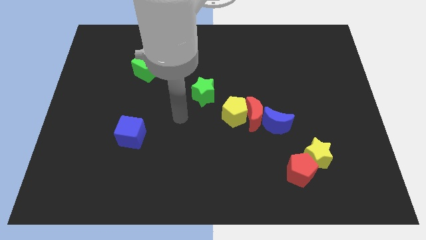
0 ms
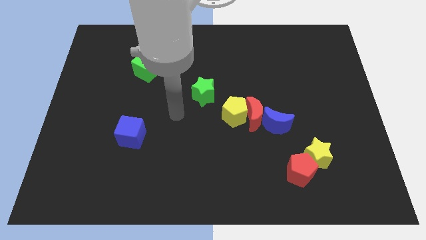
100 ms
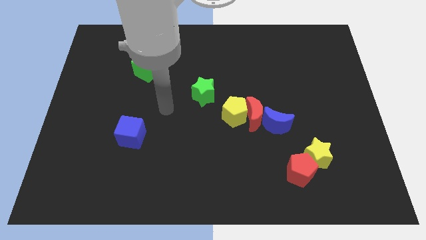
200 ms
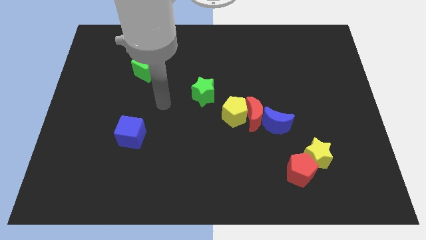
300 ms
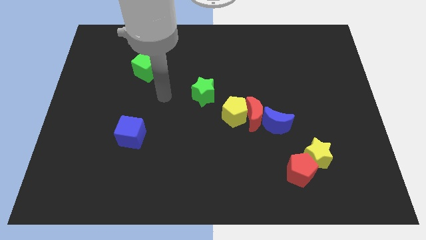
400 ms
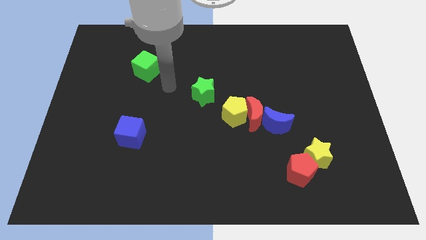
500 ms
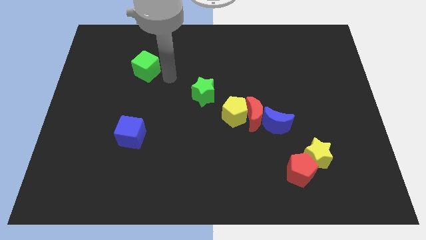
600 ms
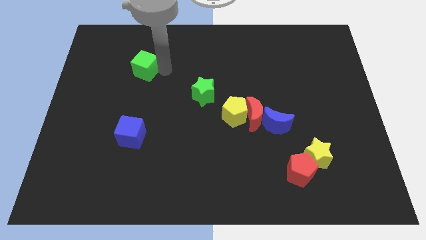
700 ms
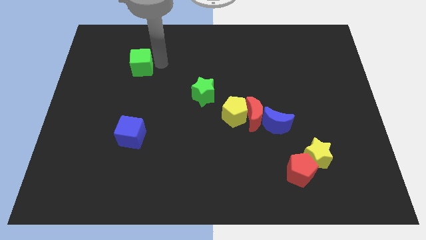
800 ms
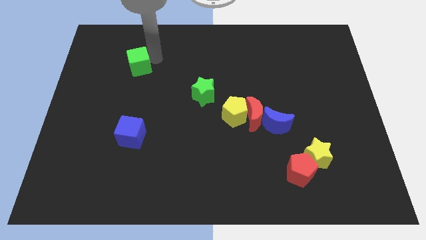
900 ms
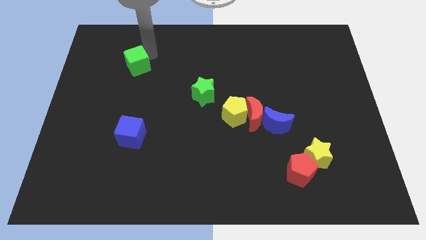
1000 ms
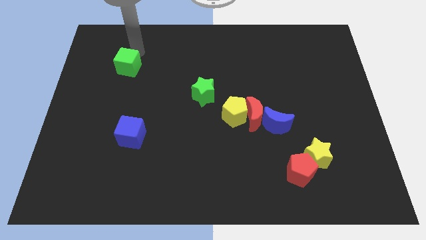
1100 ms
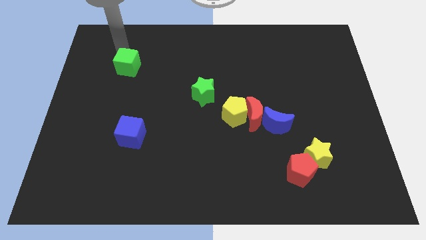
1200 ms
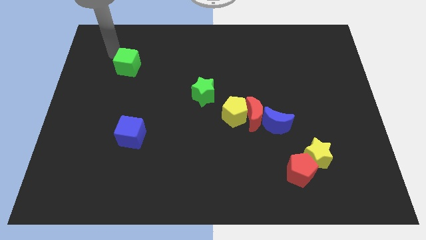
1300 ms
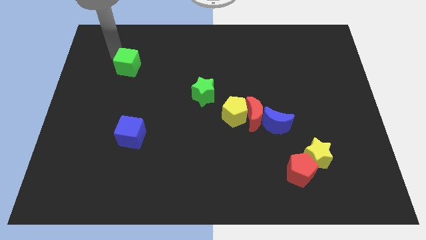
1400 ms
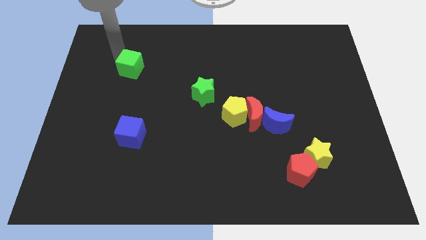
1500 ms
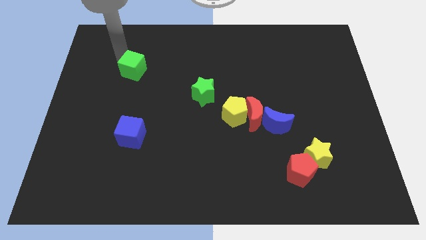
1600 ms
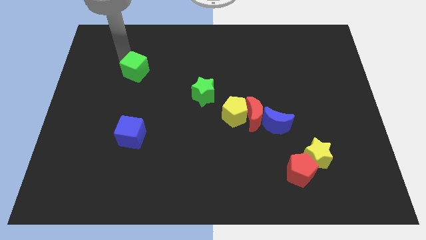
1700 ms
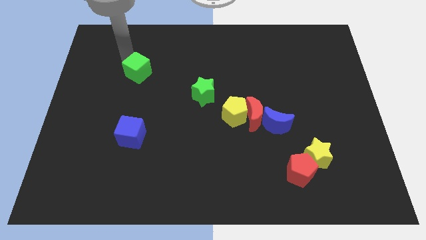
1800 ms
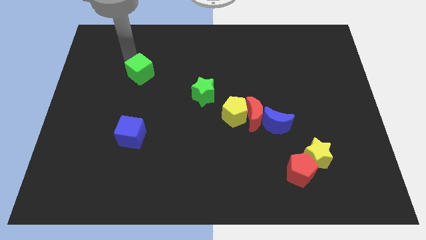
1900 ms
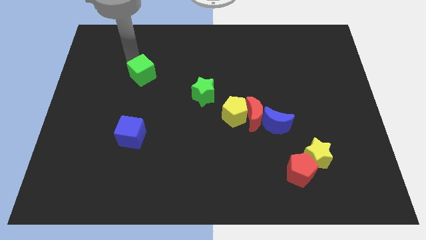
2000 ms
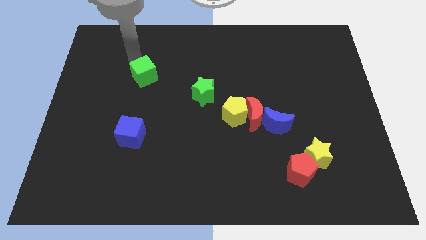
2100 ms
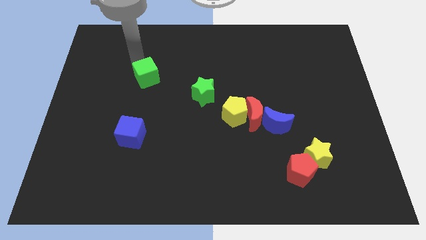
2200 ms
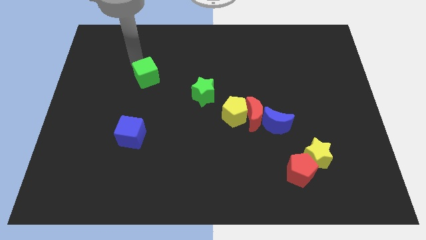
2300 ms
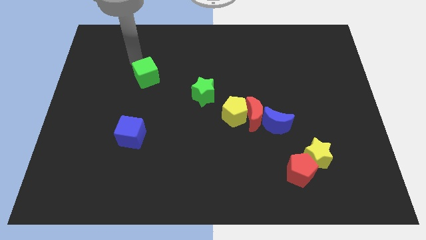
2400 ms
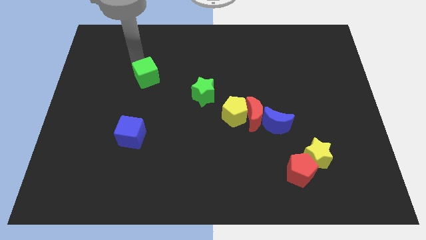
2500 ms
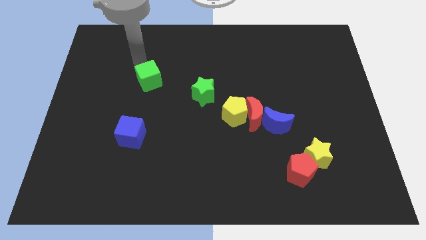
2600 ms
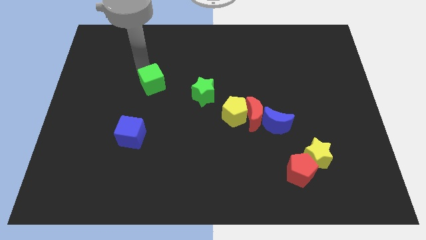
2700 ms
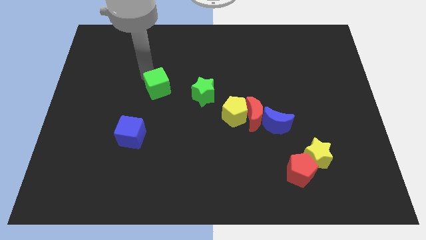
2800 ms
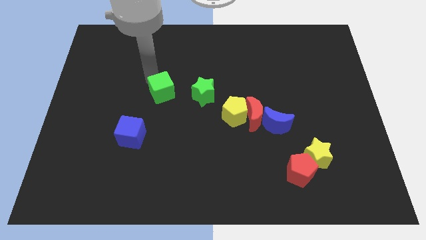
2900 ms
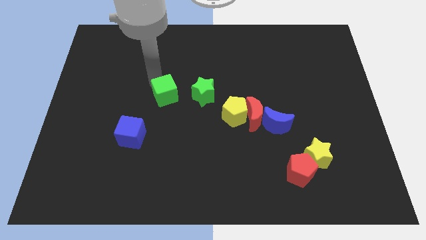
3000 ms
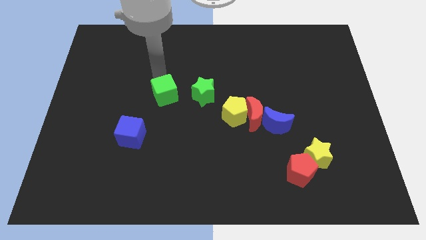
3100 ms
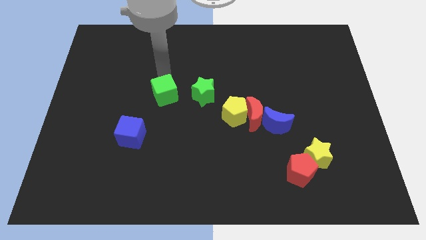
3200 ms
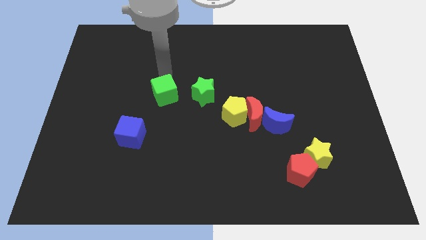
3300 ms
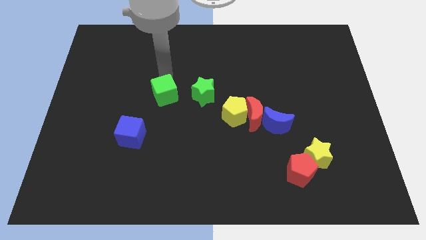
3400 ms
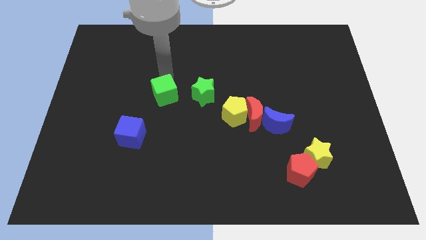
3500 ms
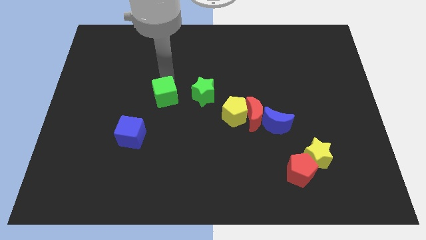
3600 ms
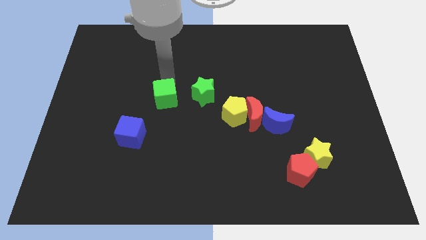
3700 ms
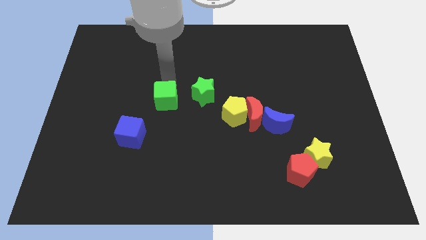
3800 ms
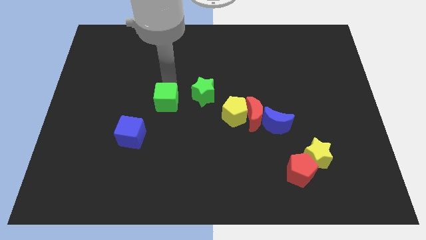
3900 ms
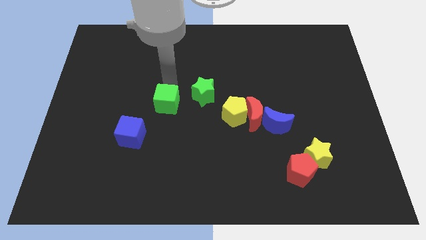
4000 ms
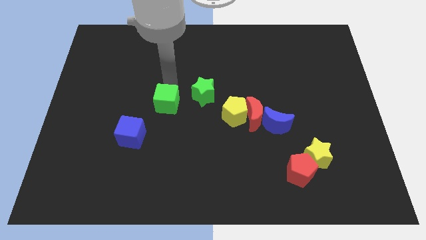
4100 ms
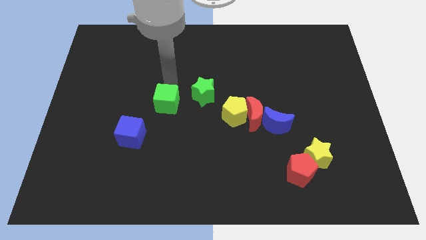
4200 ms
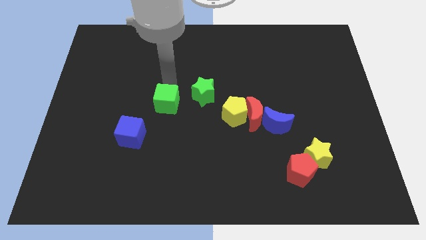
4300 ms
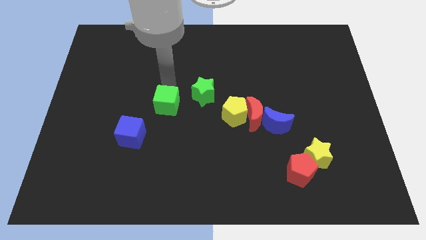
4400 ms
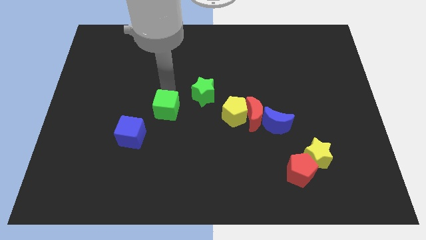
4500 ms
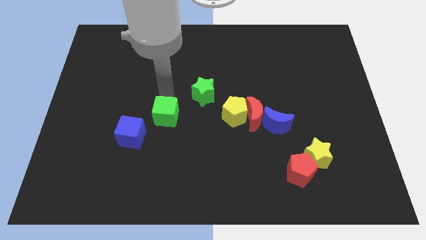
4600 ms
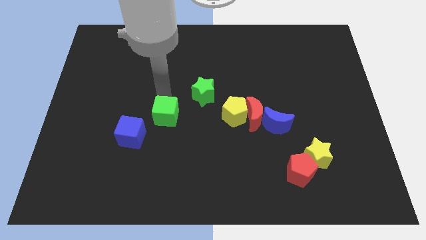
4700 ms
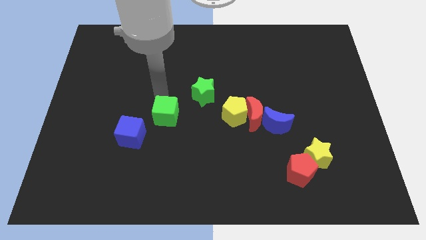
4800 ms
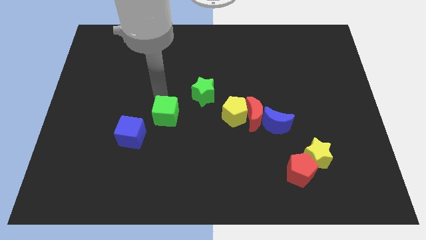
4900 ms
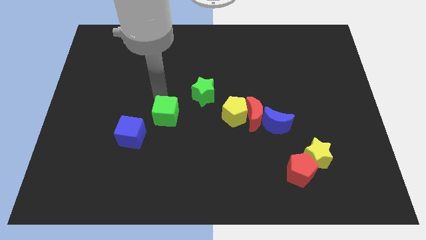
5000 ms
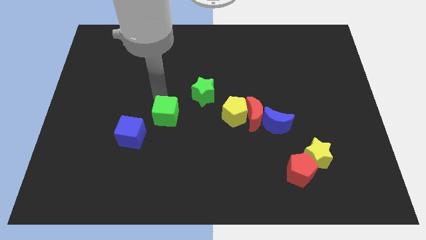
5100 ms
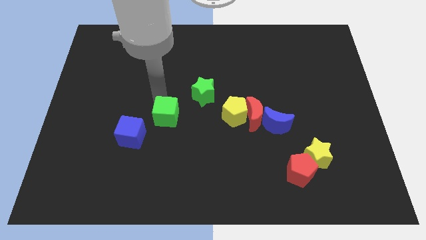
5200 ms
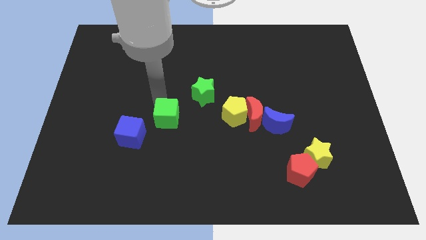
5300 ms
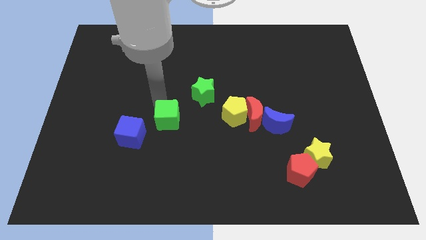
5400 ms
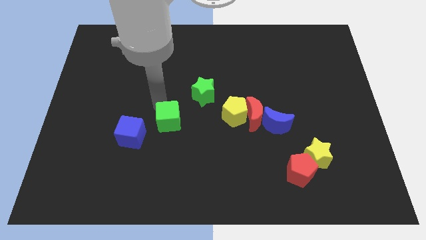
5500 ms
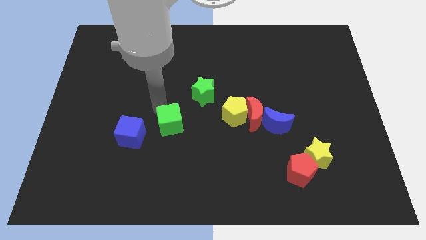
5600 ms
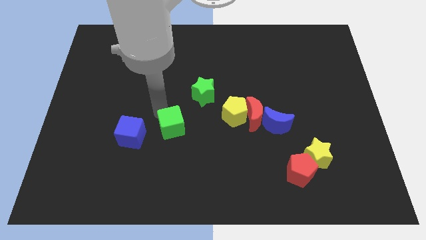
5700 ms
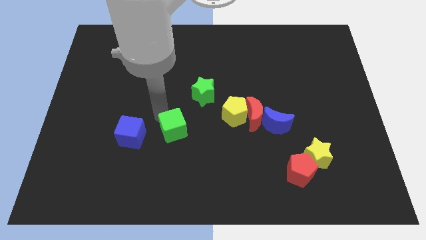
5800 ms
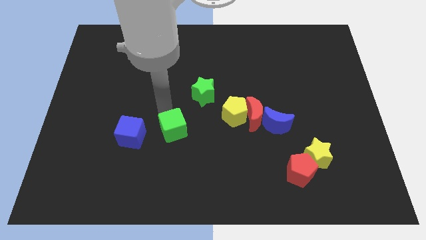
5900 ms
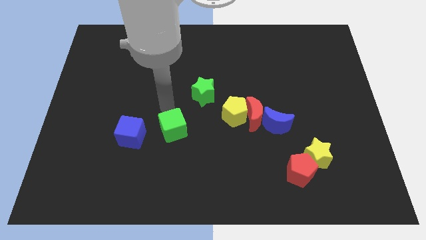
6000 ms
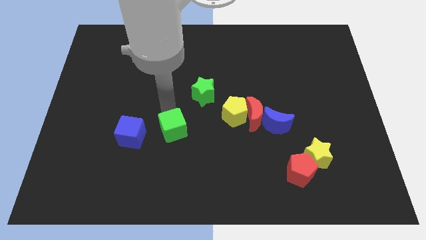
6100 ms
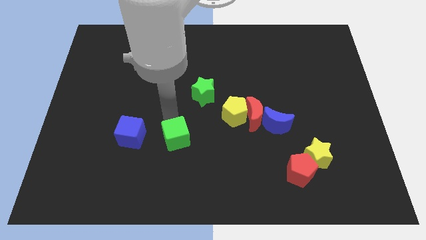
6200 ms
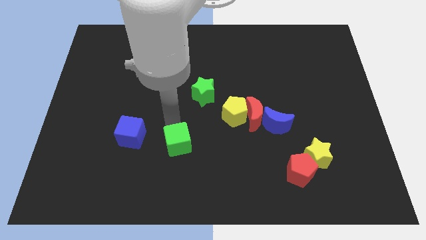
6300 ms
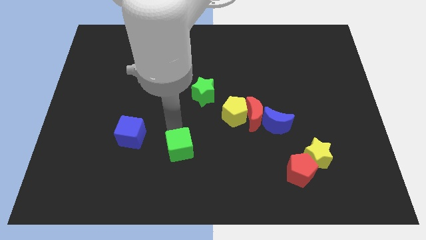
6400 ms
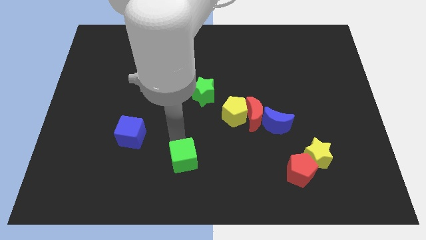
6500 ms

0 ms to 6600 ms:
move the green cube to the bottom side

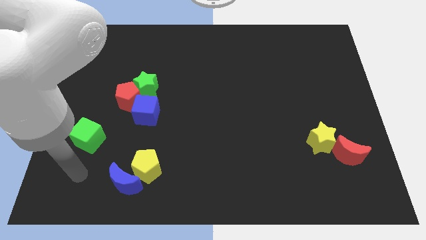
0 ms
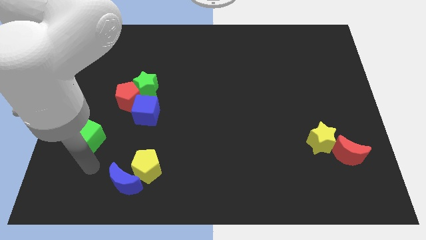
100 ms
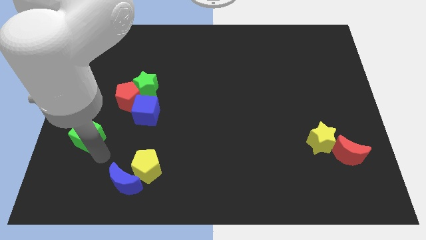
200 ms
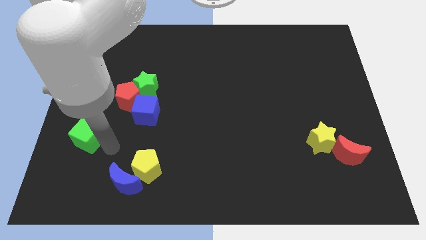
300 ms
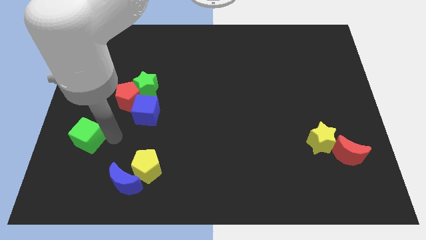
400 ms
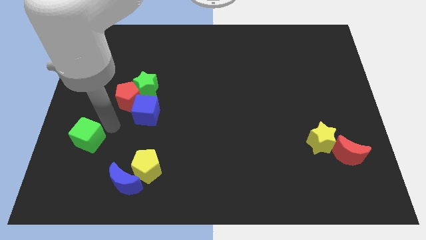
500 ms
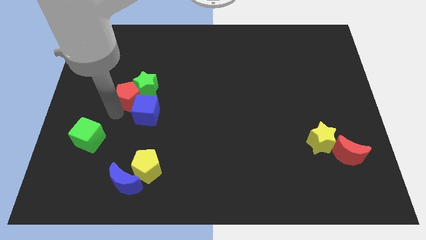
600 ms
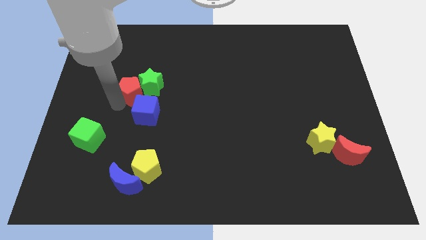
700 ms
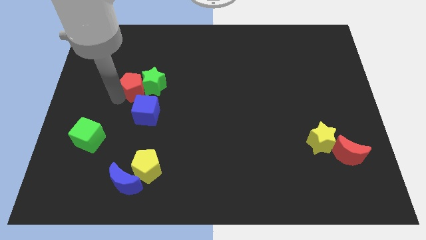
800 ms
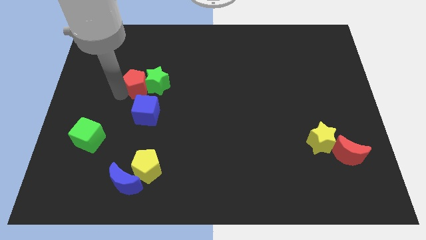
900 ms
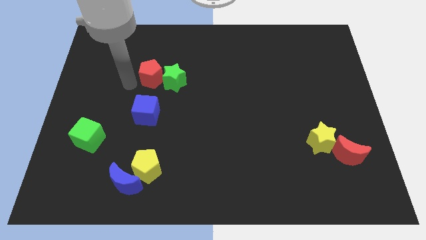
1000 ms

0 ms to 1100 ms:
move the green star to the center of the board

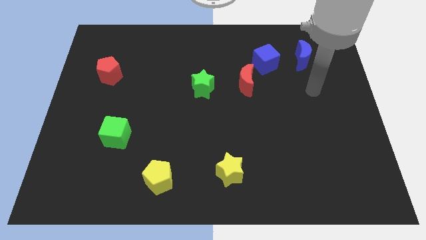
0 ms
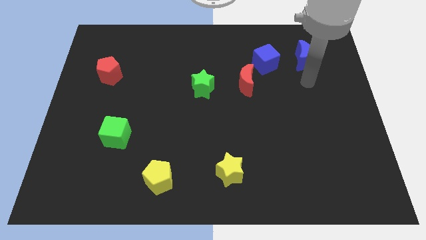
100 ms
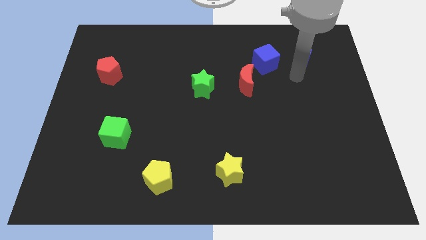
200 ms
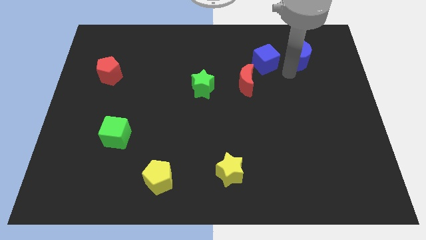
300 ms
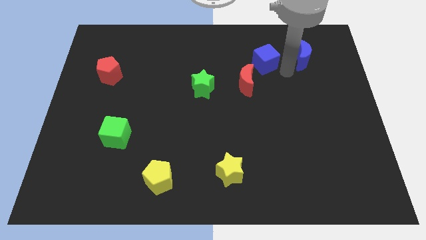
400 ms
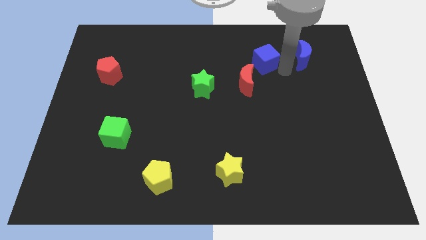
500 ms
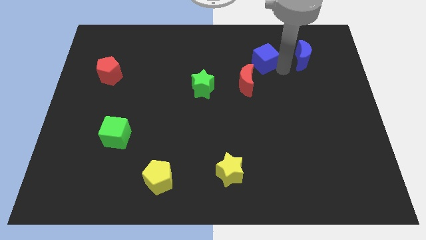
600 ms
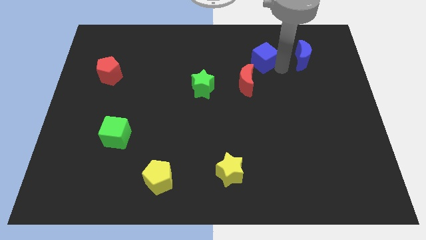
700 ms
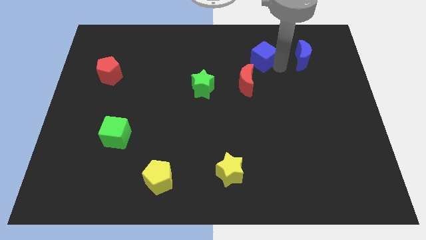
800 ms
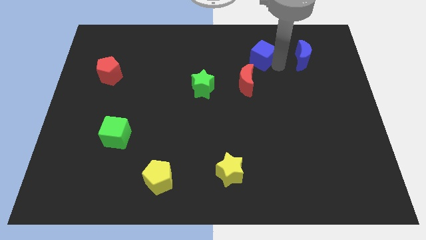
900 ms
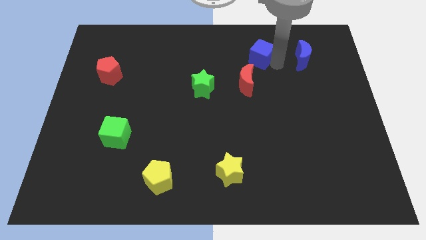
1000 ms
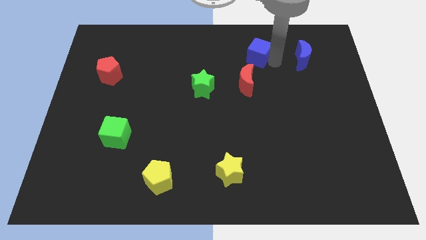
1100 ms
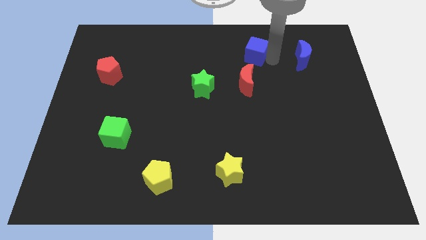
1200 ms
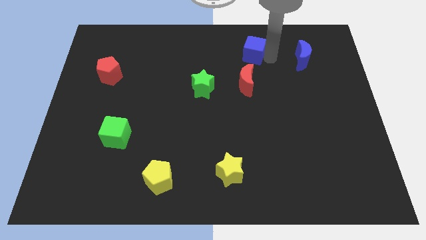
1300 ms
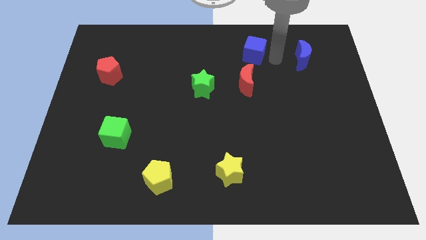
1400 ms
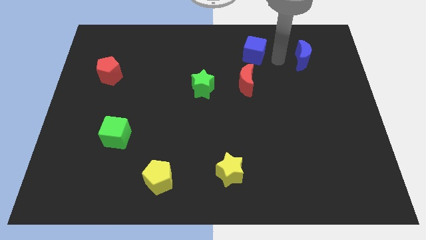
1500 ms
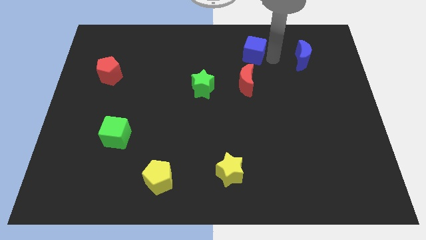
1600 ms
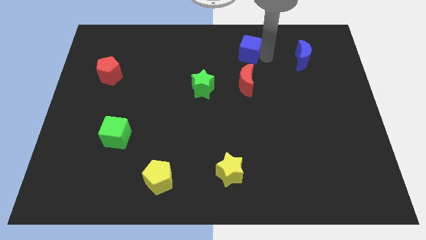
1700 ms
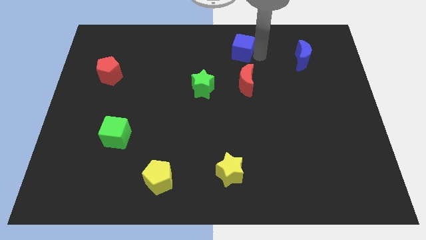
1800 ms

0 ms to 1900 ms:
slide the blue cube to the towards your base
